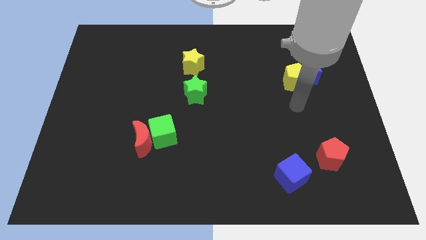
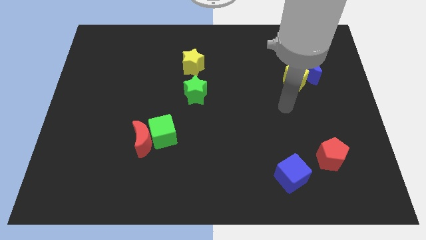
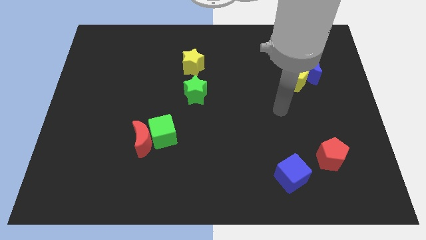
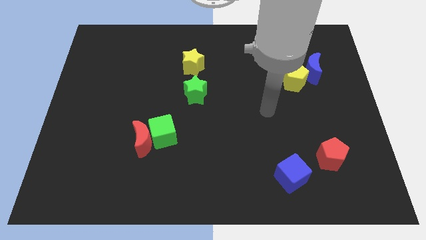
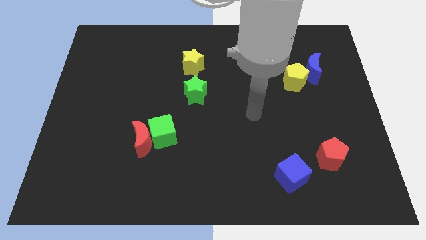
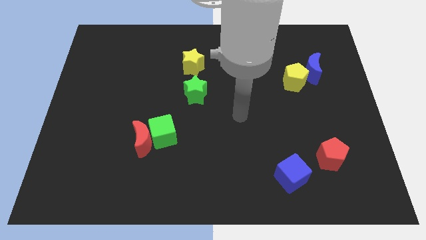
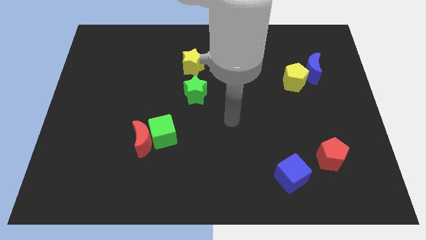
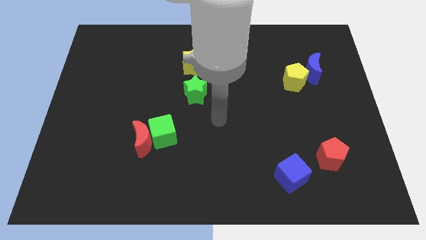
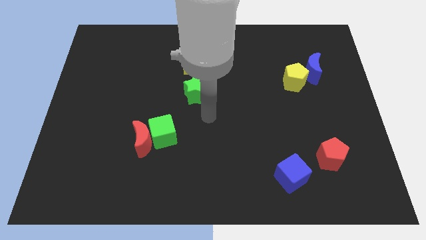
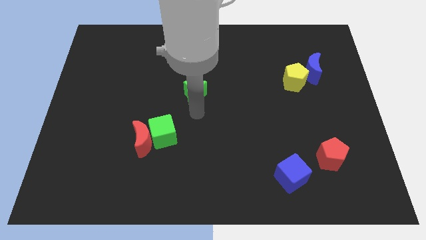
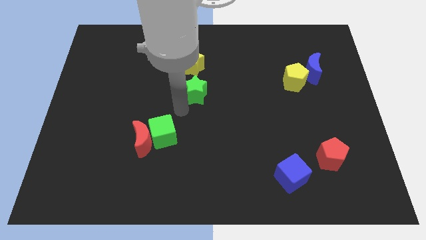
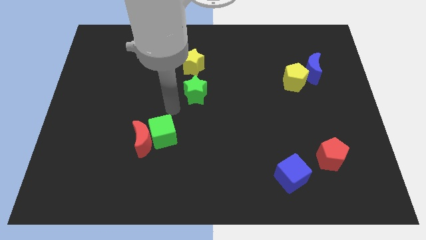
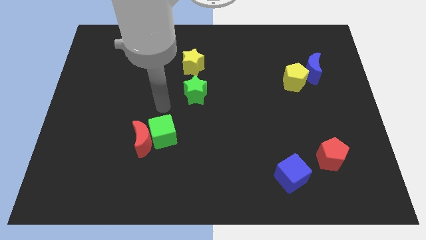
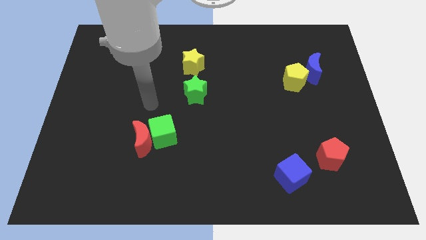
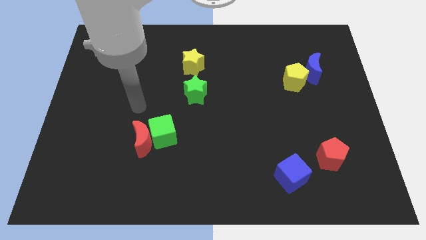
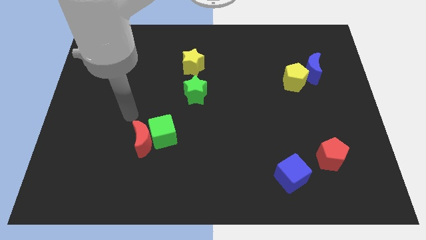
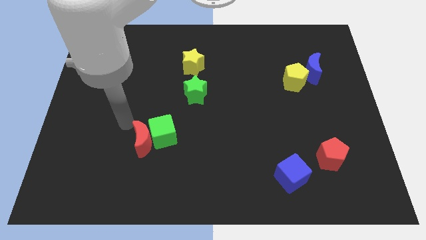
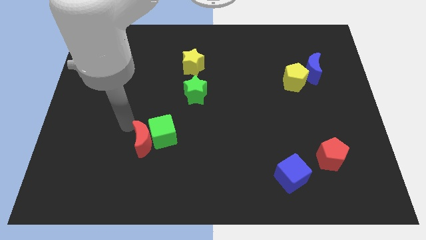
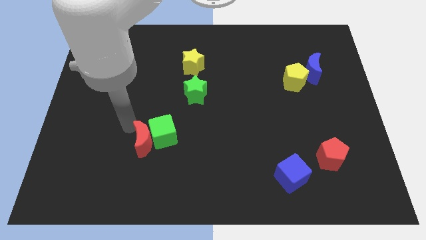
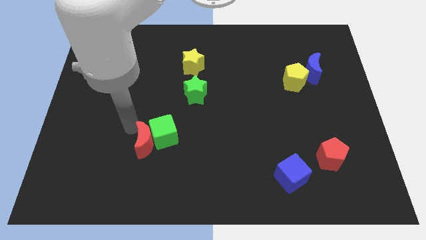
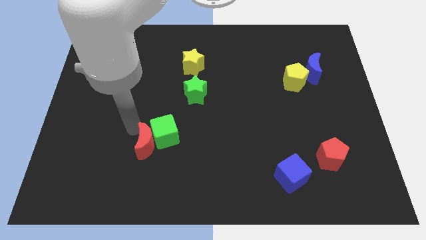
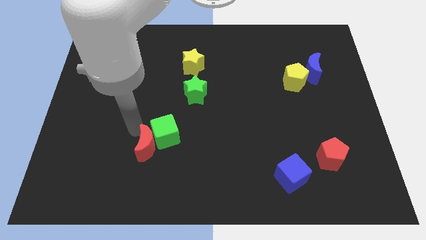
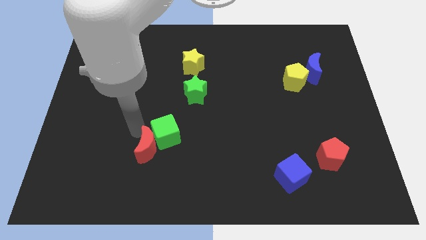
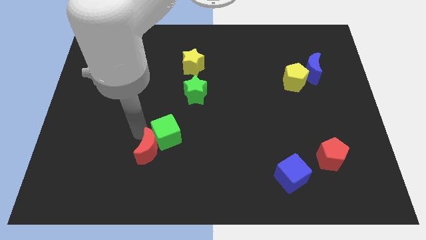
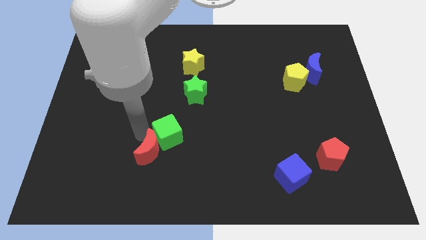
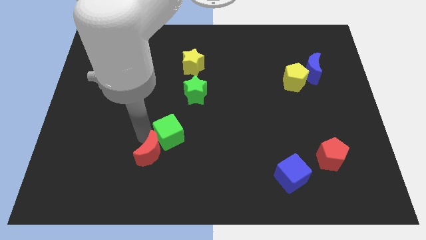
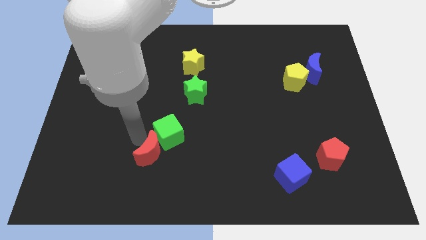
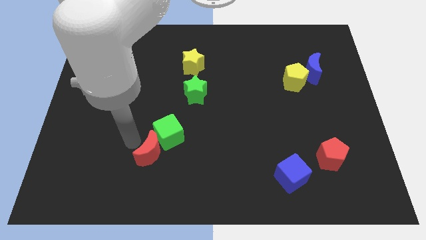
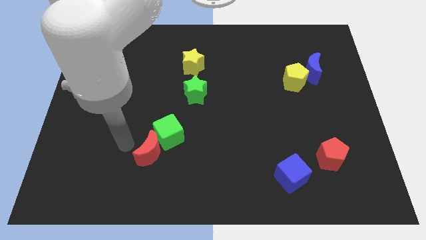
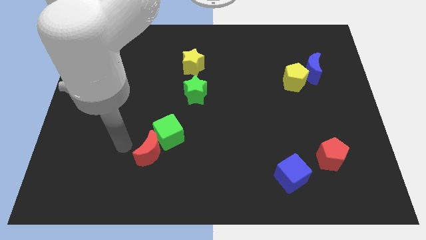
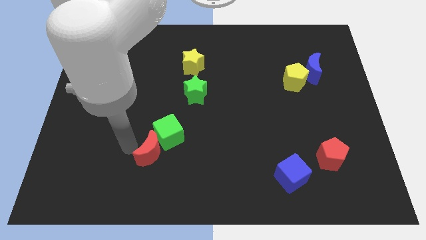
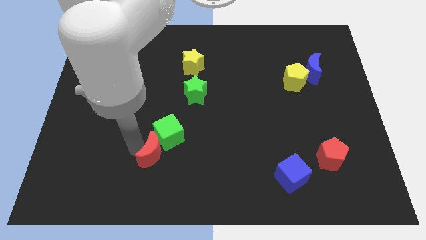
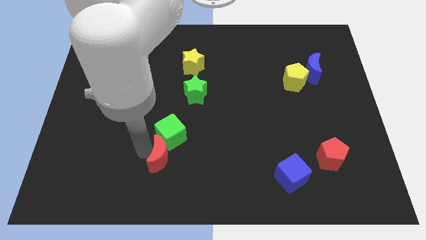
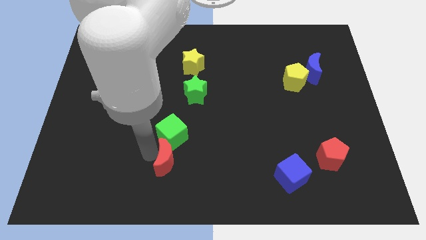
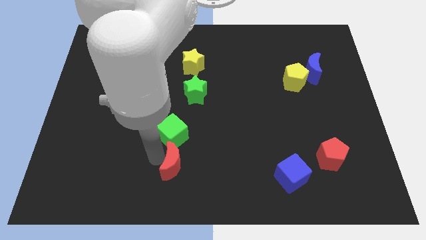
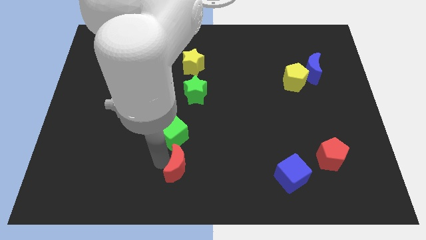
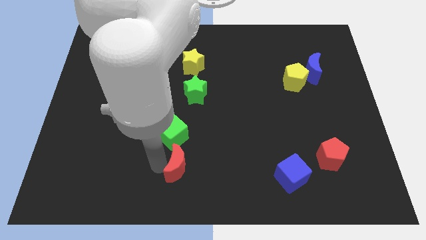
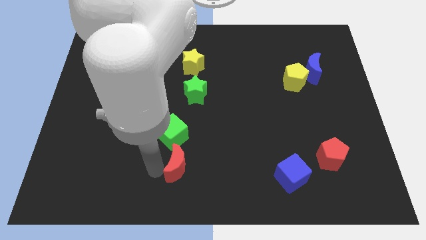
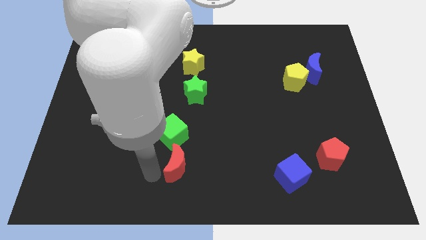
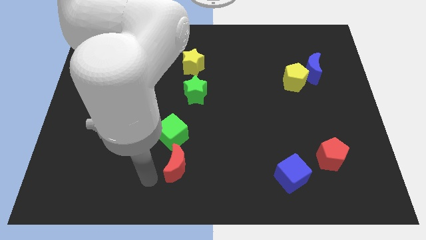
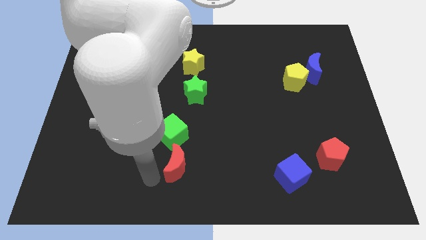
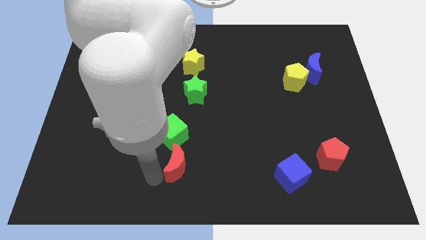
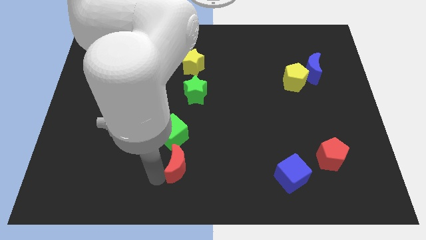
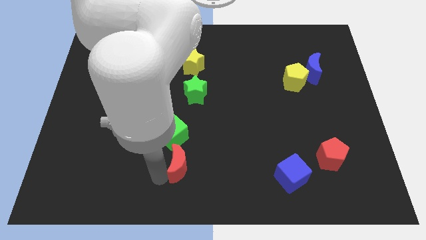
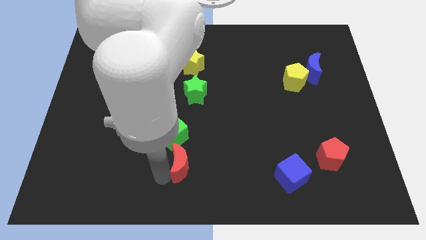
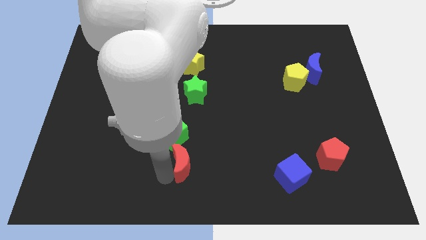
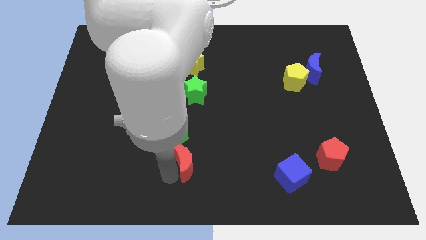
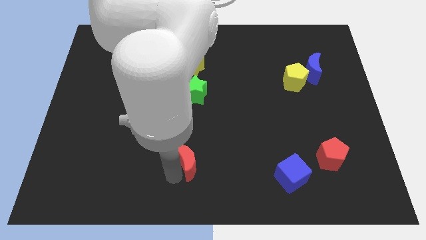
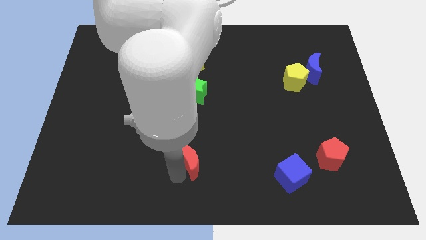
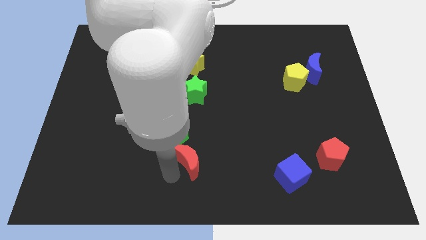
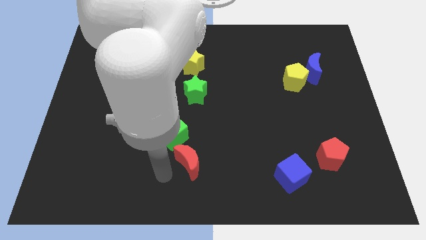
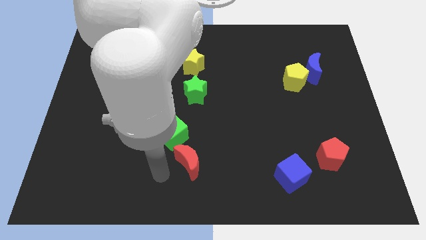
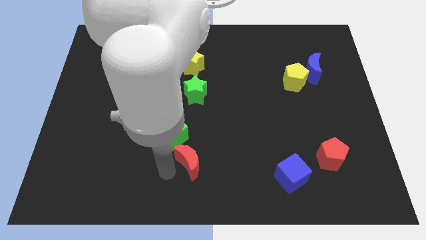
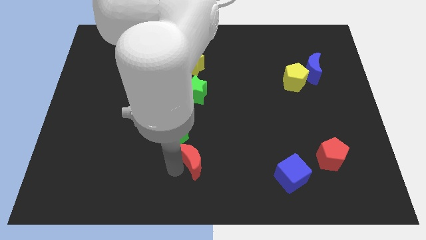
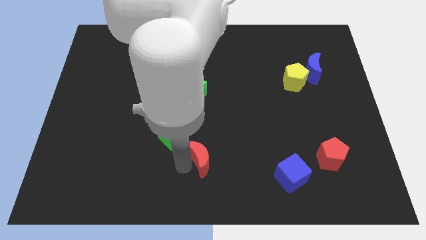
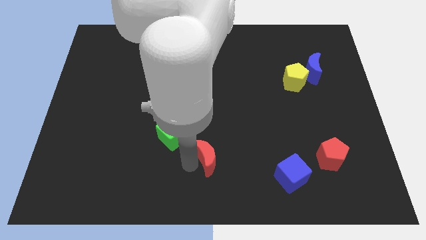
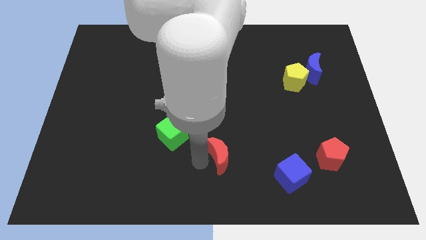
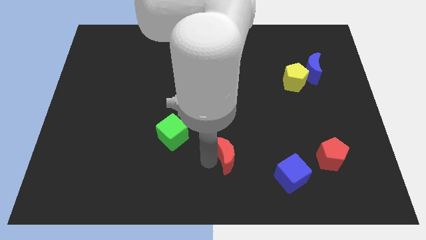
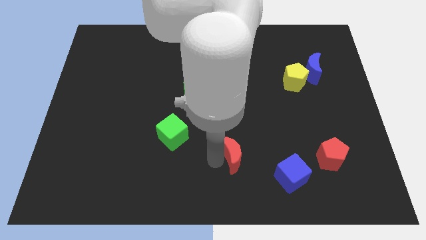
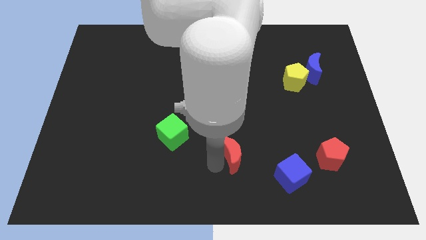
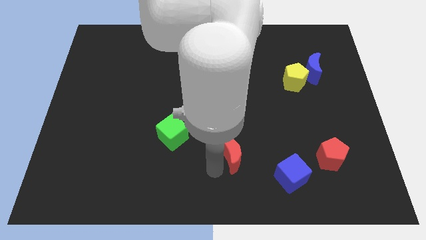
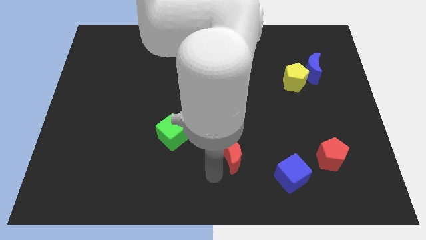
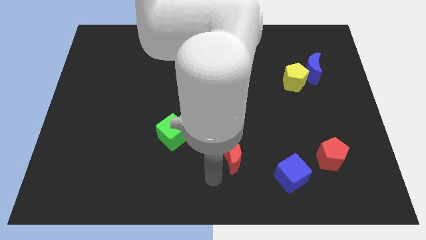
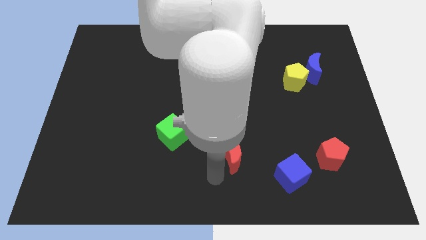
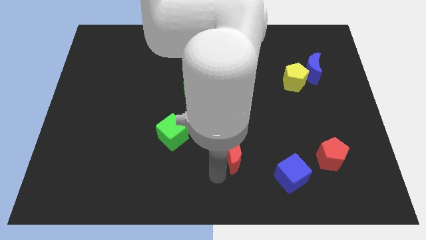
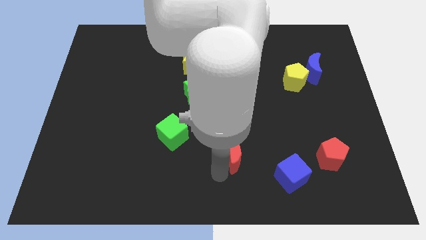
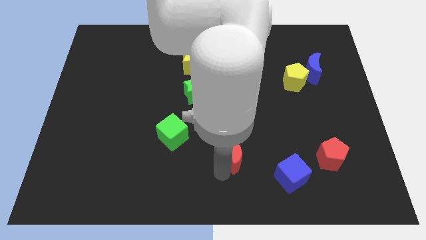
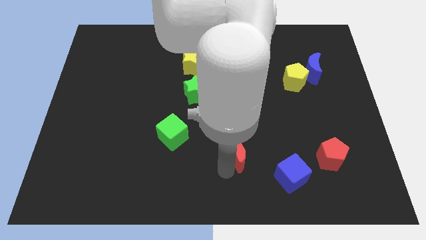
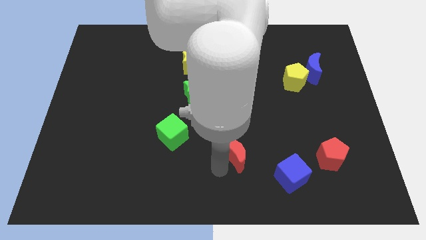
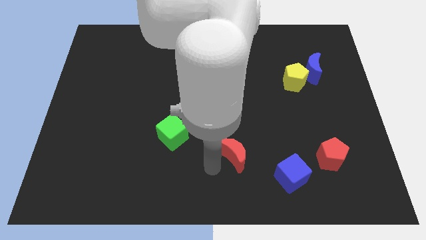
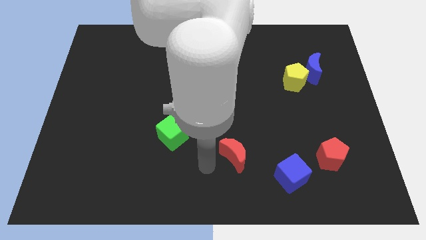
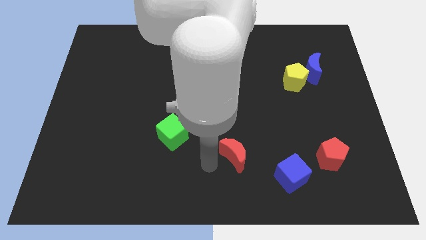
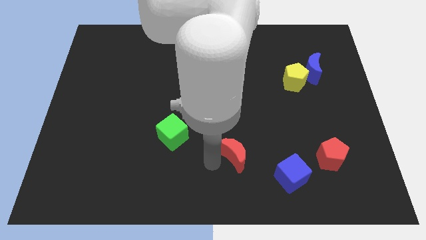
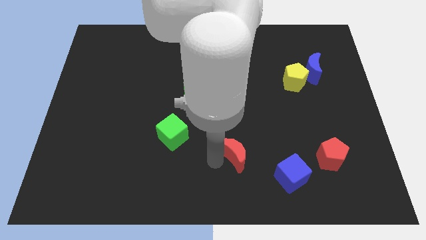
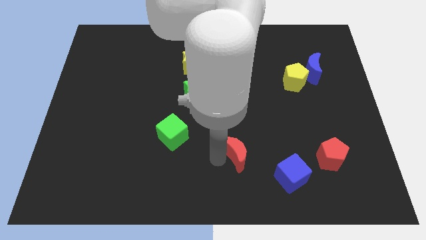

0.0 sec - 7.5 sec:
move the red moon right

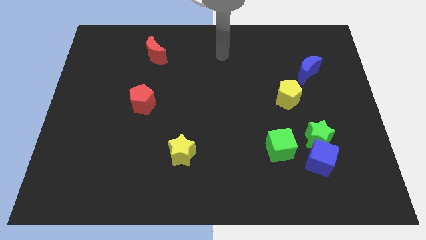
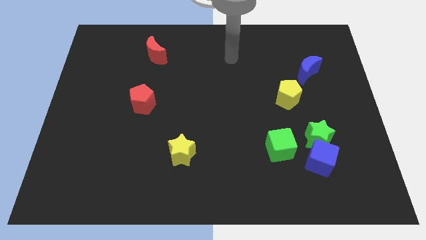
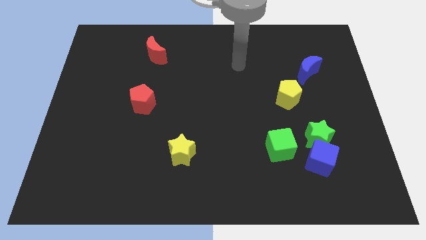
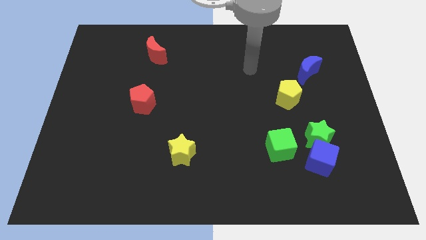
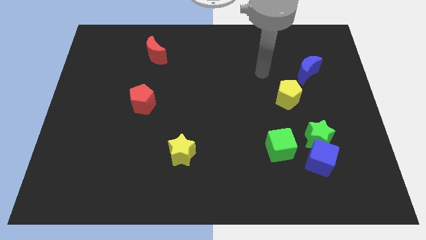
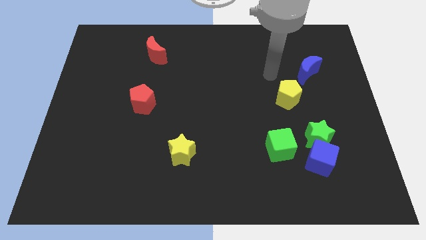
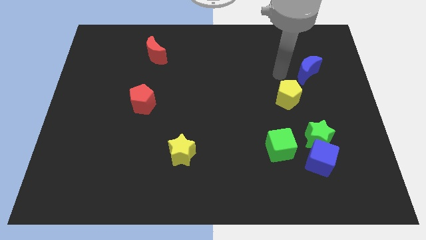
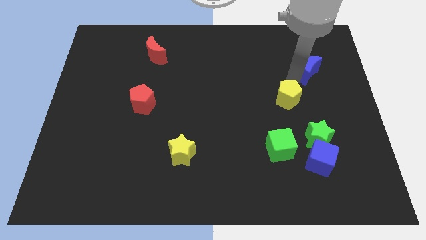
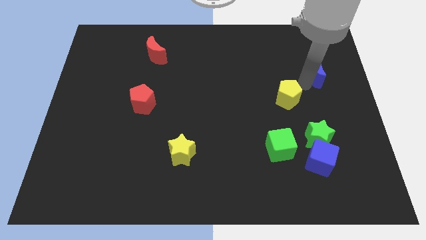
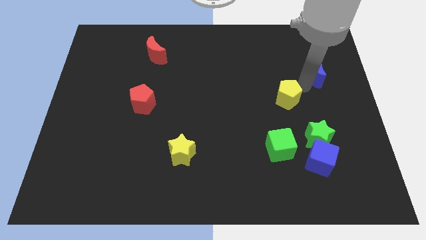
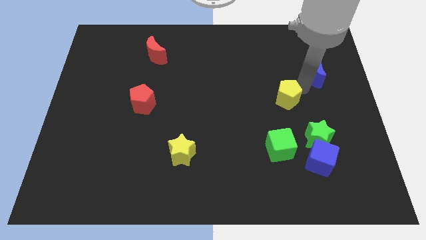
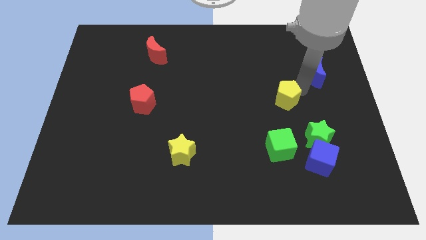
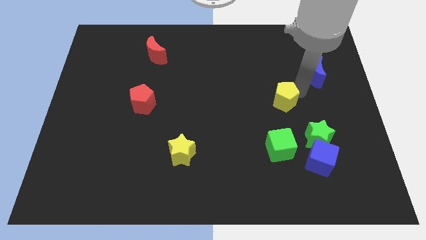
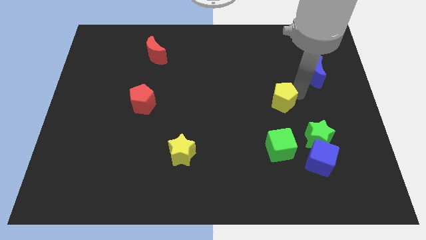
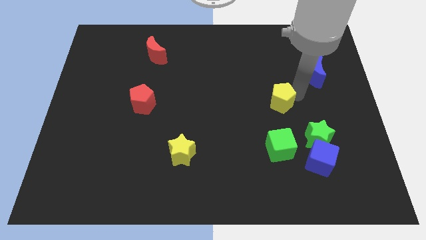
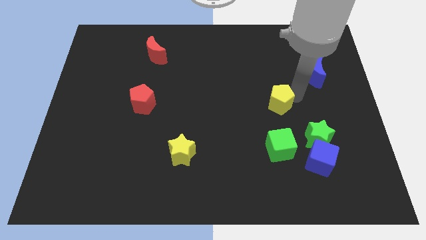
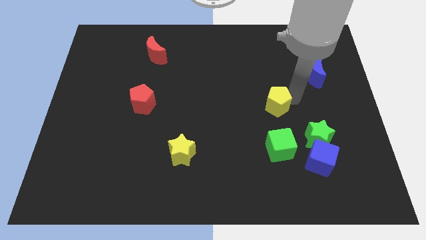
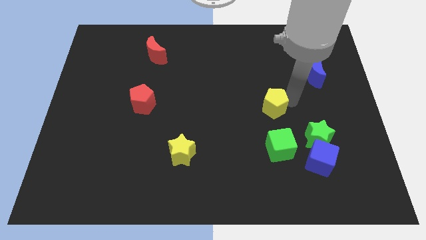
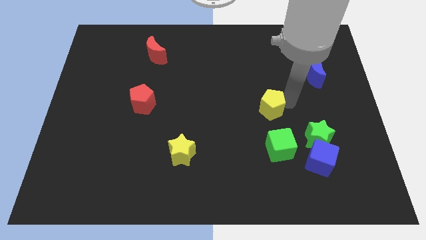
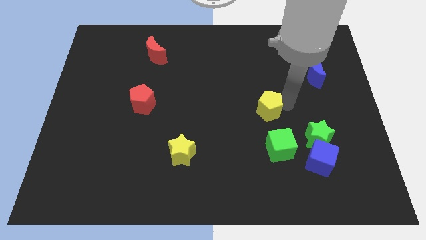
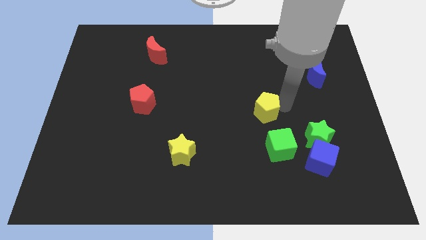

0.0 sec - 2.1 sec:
slightly slide the yellow pentagon downwards and left diagonally
